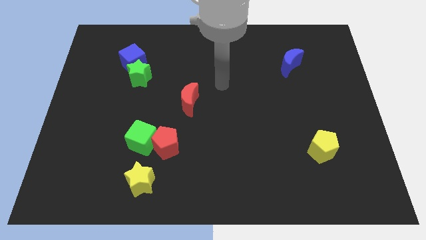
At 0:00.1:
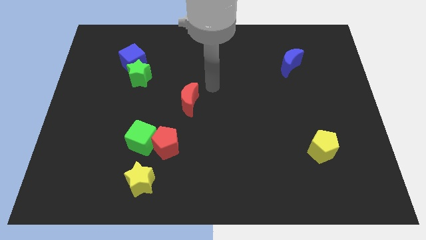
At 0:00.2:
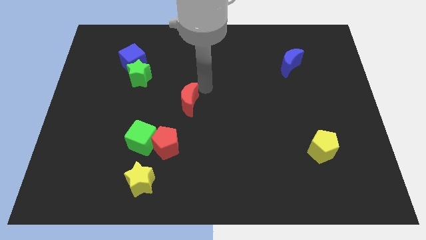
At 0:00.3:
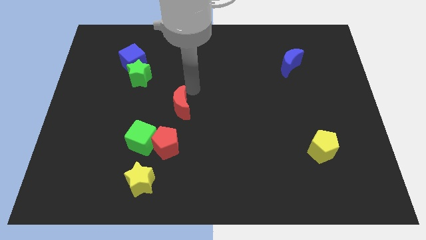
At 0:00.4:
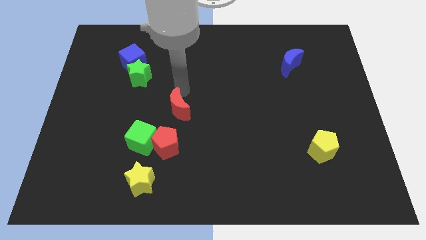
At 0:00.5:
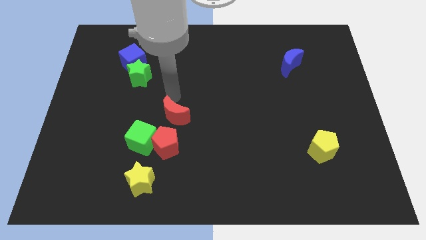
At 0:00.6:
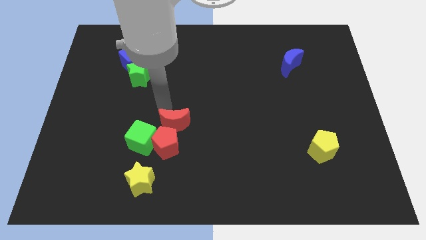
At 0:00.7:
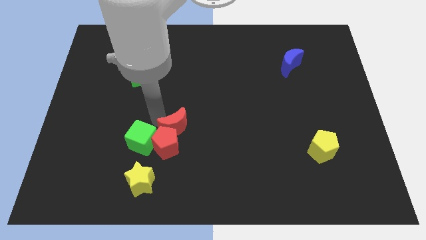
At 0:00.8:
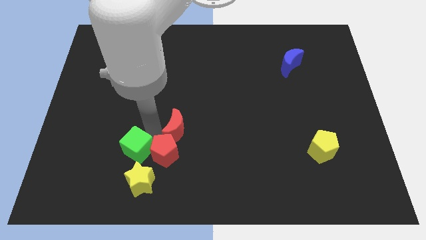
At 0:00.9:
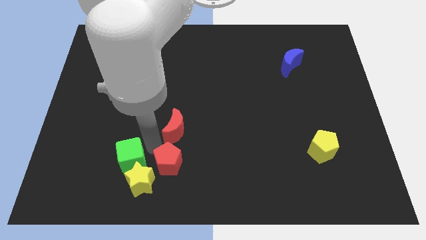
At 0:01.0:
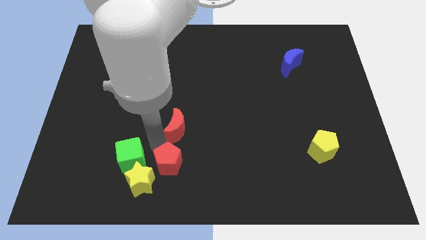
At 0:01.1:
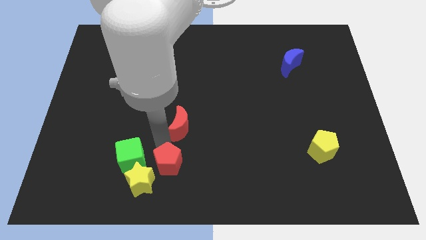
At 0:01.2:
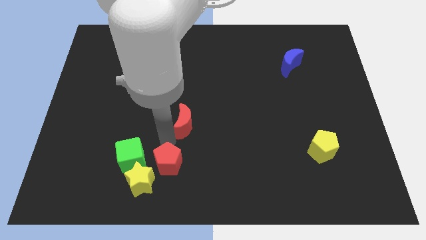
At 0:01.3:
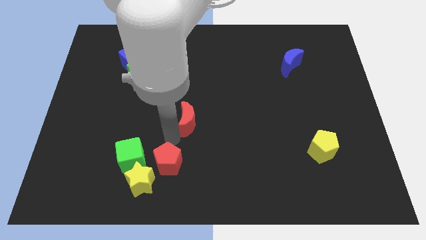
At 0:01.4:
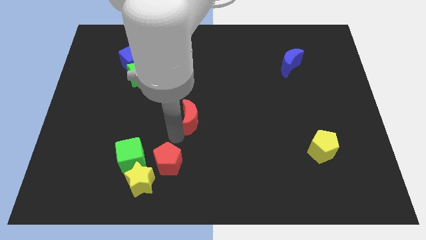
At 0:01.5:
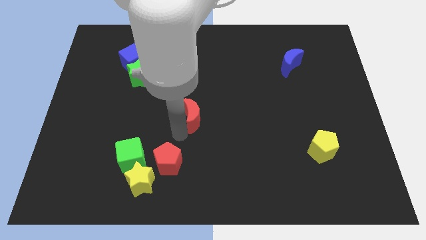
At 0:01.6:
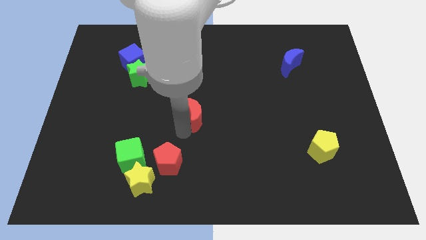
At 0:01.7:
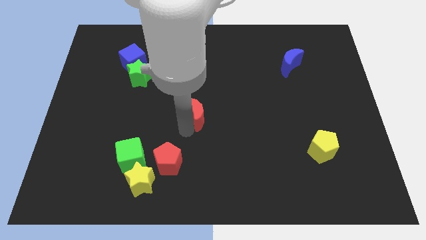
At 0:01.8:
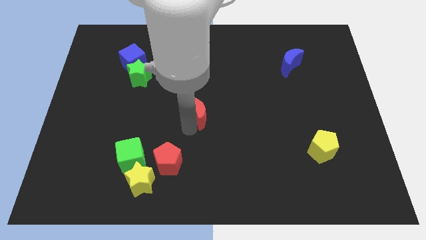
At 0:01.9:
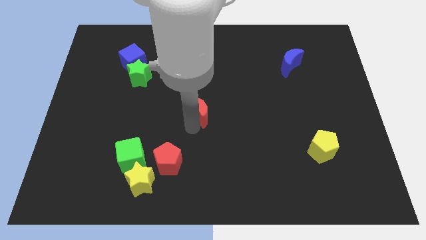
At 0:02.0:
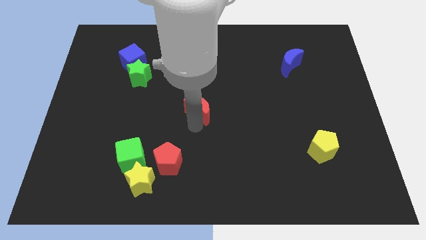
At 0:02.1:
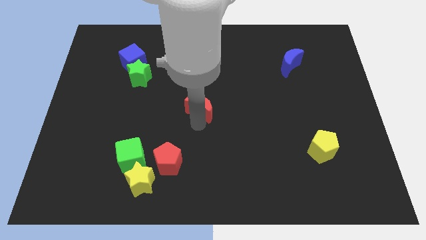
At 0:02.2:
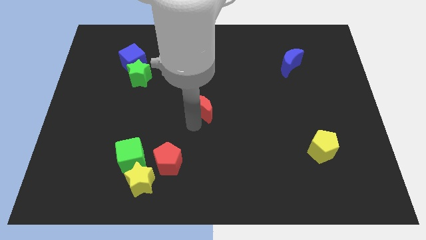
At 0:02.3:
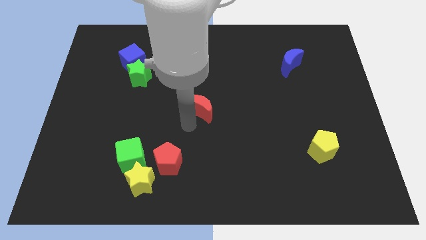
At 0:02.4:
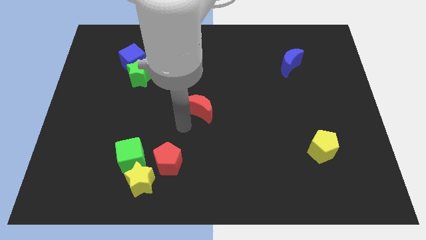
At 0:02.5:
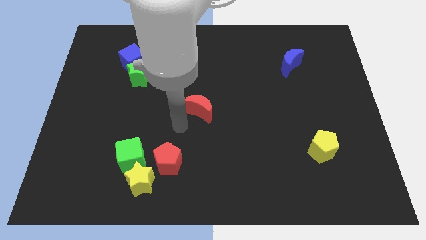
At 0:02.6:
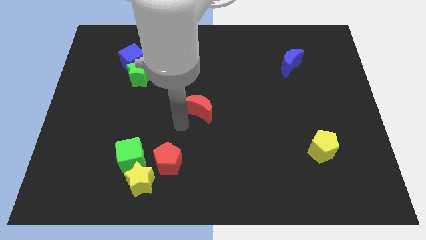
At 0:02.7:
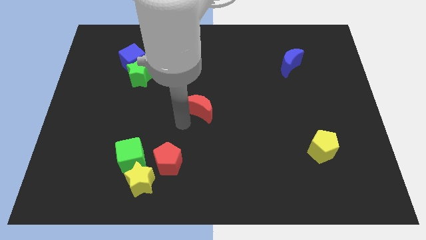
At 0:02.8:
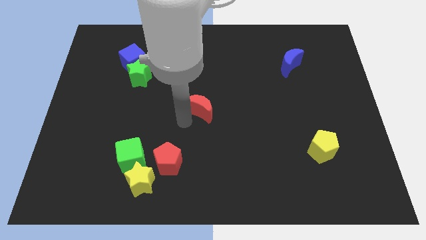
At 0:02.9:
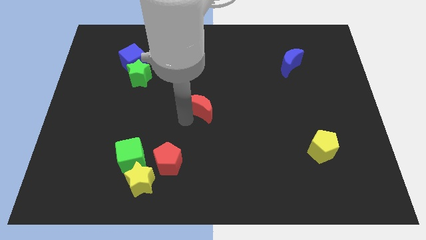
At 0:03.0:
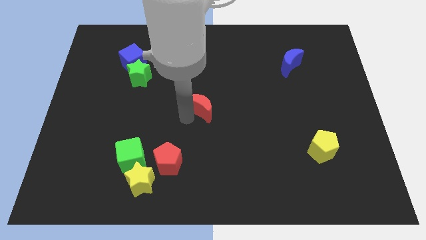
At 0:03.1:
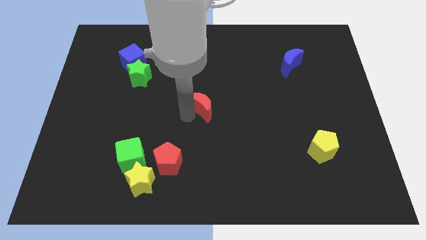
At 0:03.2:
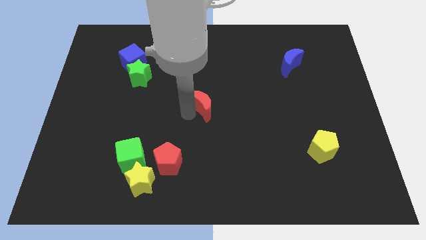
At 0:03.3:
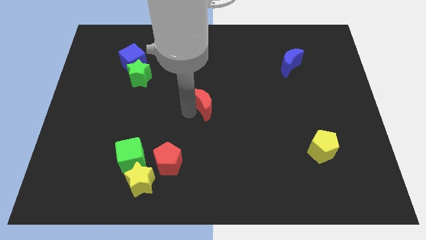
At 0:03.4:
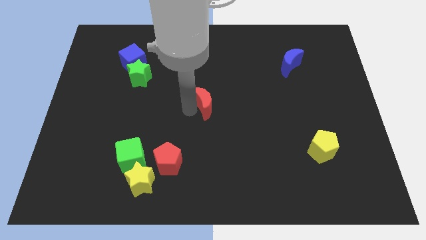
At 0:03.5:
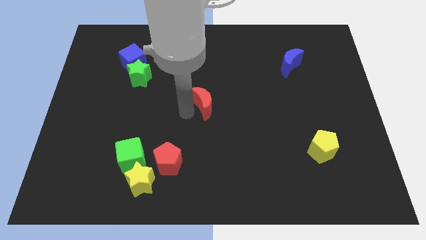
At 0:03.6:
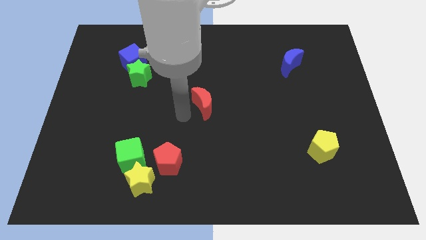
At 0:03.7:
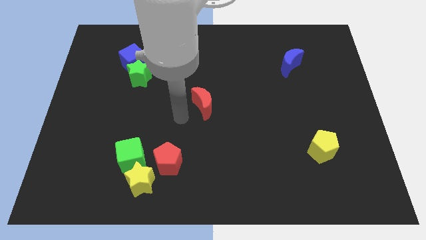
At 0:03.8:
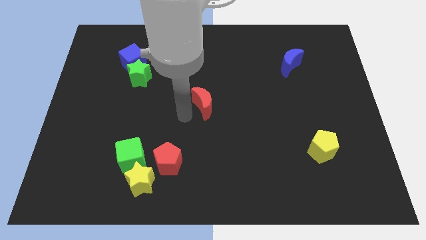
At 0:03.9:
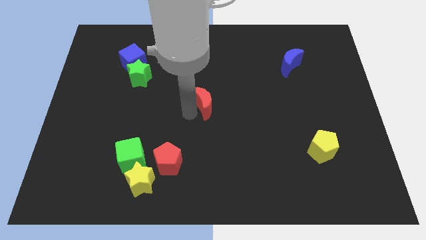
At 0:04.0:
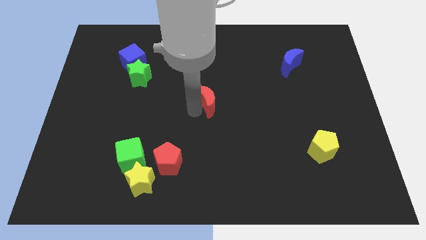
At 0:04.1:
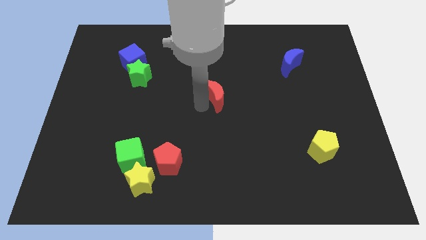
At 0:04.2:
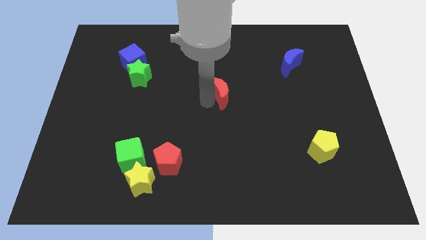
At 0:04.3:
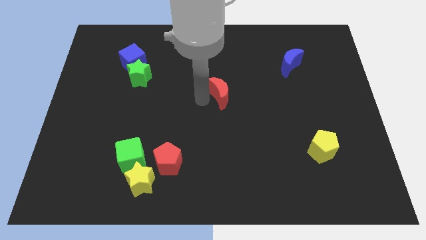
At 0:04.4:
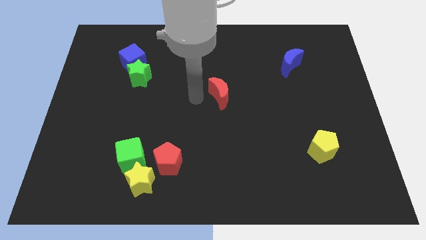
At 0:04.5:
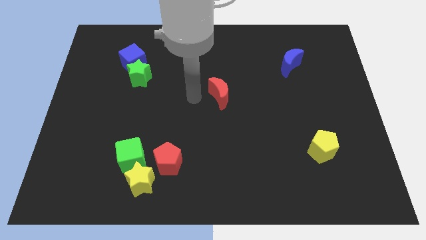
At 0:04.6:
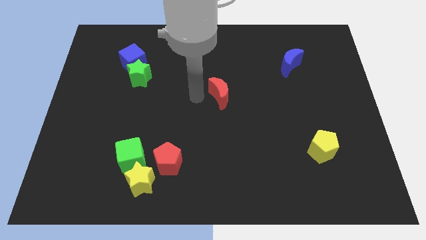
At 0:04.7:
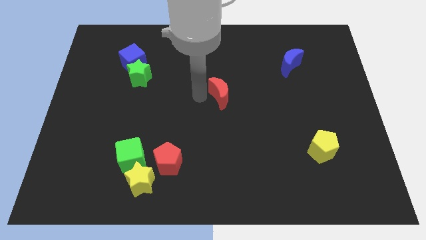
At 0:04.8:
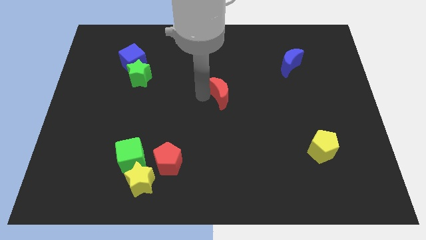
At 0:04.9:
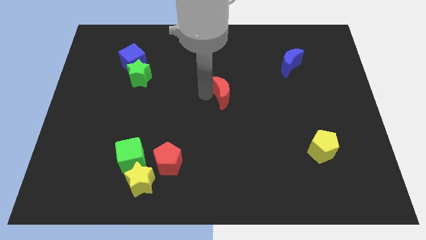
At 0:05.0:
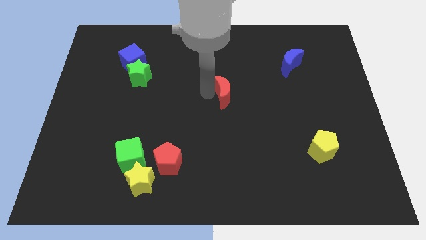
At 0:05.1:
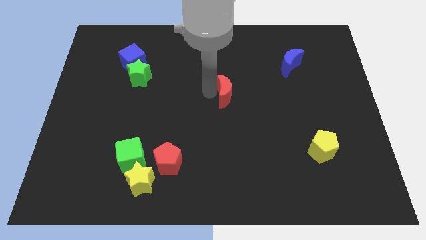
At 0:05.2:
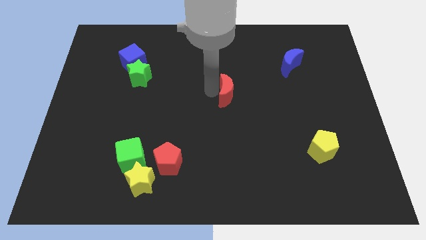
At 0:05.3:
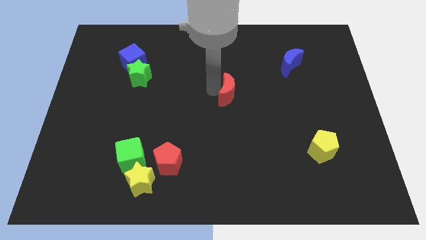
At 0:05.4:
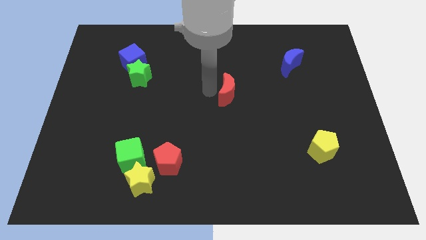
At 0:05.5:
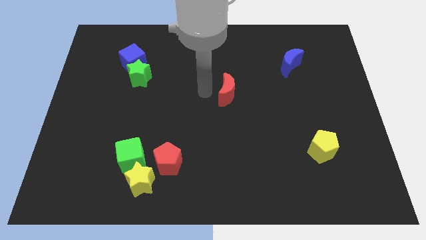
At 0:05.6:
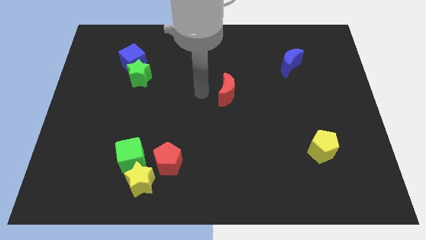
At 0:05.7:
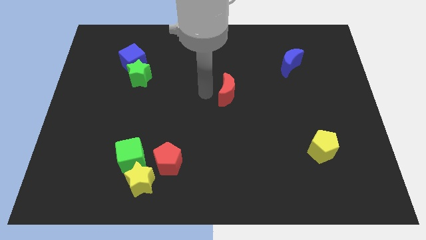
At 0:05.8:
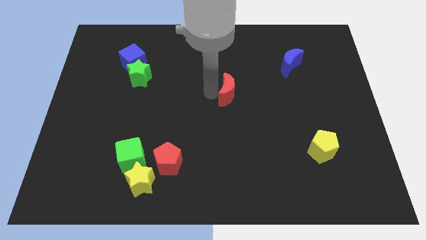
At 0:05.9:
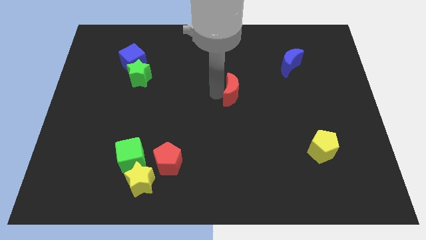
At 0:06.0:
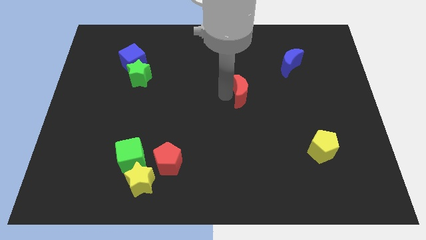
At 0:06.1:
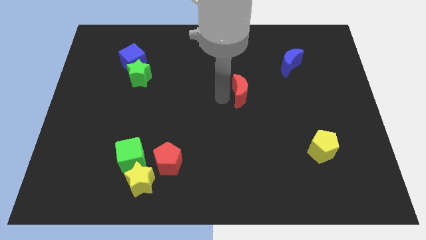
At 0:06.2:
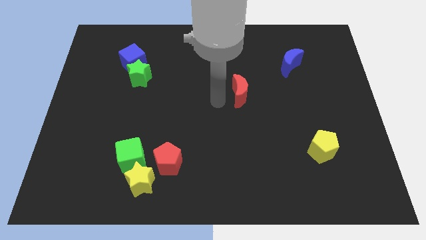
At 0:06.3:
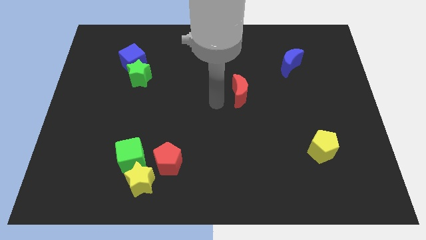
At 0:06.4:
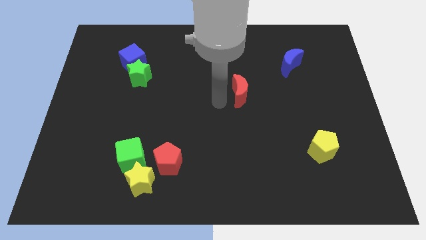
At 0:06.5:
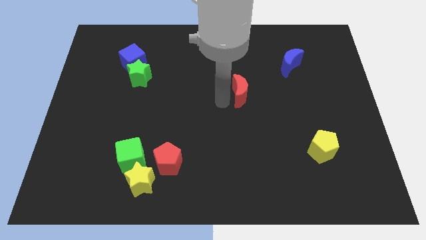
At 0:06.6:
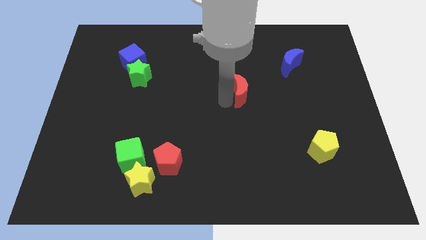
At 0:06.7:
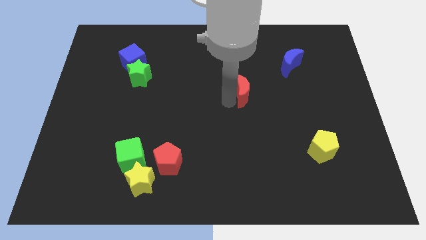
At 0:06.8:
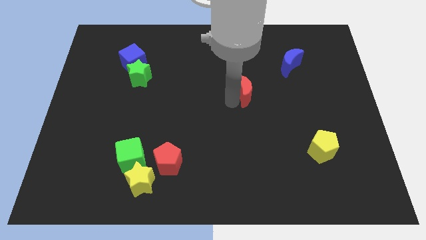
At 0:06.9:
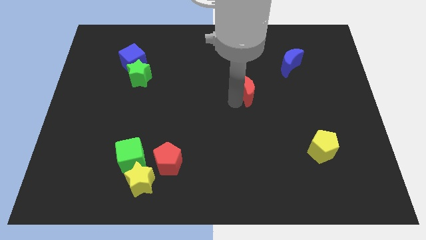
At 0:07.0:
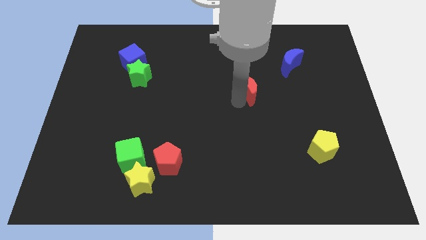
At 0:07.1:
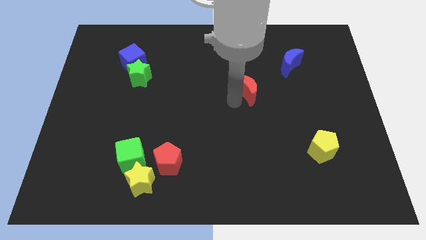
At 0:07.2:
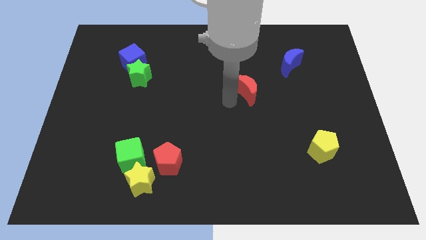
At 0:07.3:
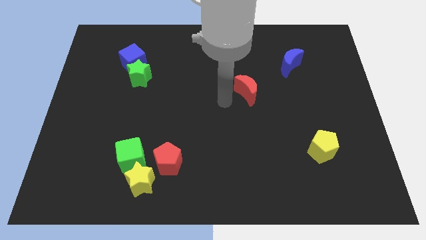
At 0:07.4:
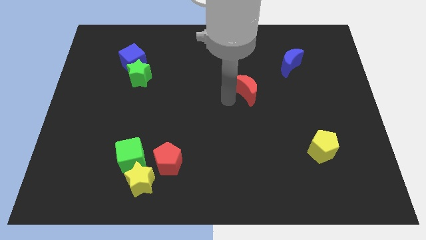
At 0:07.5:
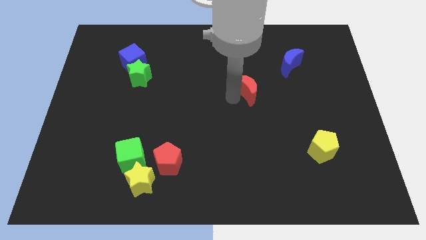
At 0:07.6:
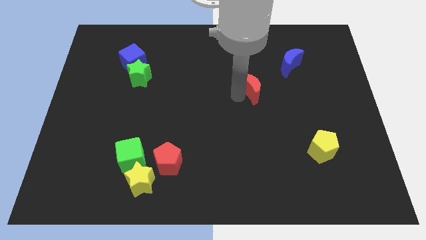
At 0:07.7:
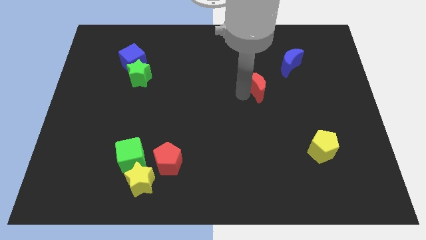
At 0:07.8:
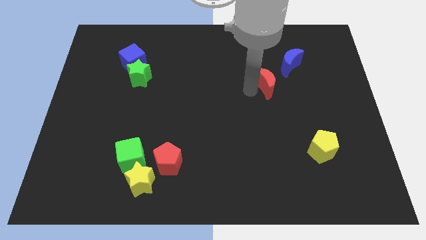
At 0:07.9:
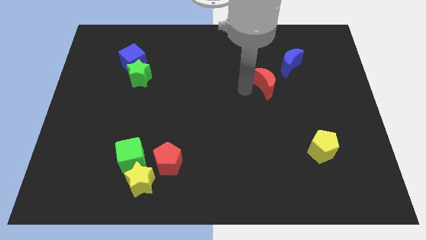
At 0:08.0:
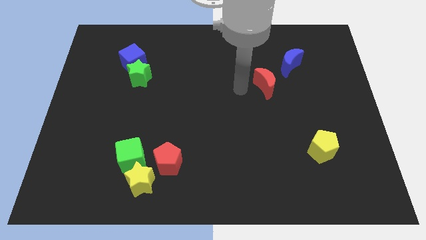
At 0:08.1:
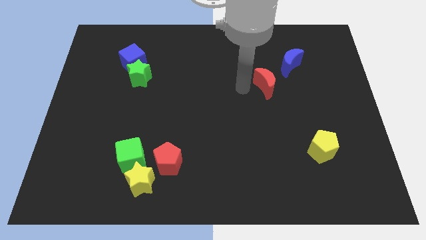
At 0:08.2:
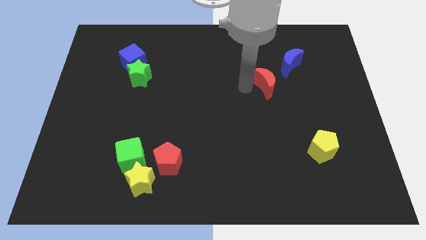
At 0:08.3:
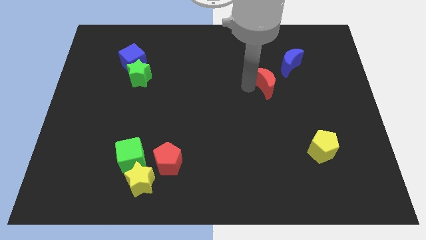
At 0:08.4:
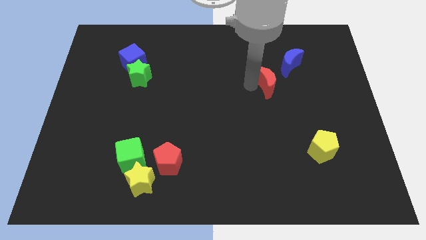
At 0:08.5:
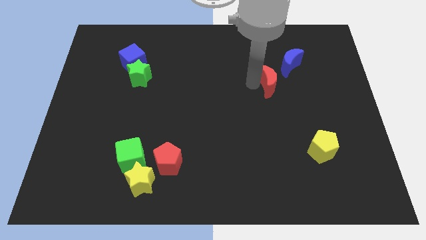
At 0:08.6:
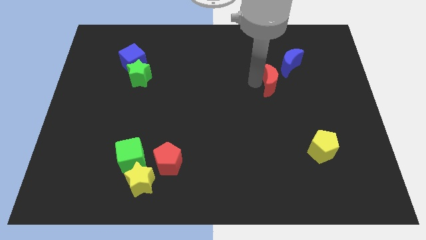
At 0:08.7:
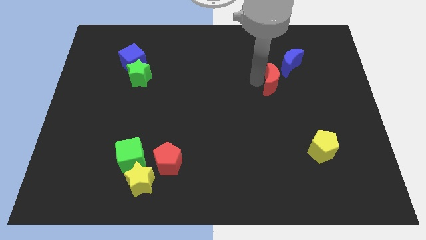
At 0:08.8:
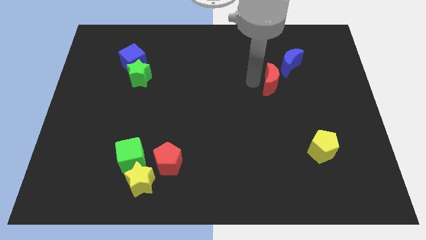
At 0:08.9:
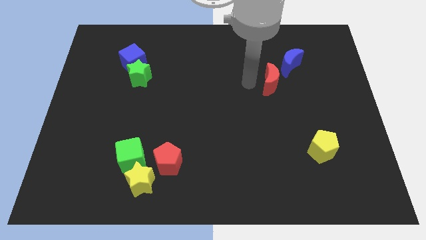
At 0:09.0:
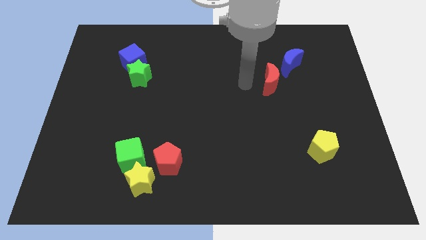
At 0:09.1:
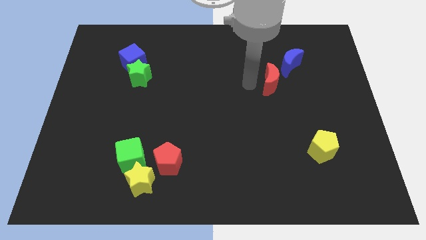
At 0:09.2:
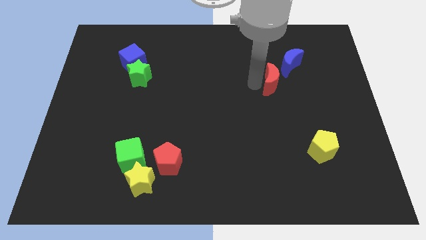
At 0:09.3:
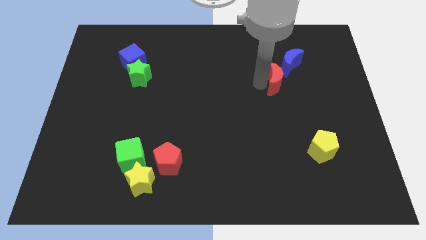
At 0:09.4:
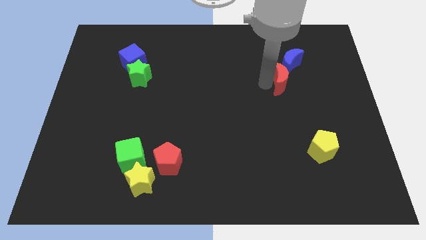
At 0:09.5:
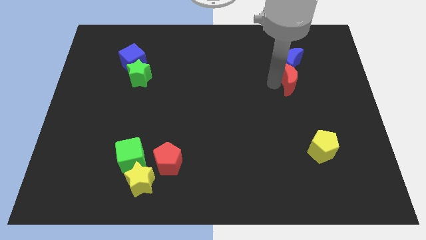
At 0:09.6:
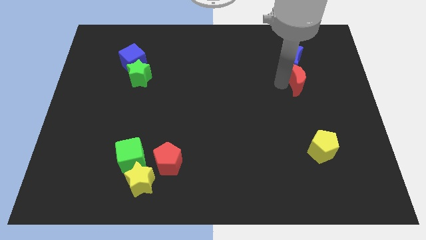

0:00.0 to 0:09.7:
slide the red moon to the bottom right of the blue moon
